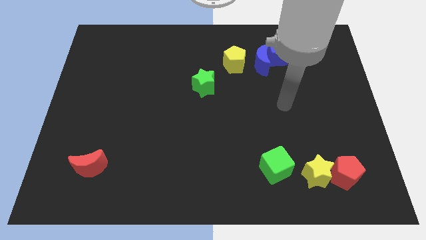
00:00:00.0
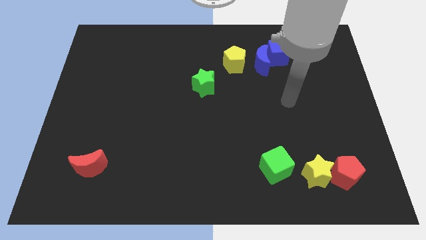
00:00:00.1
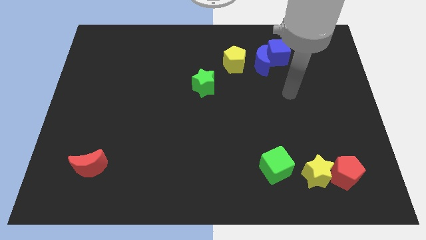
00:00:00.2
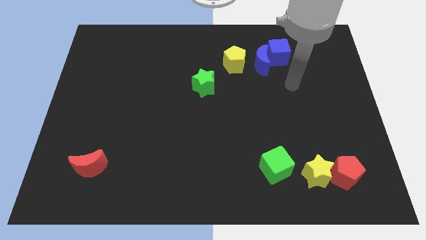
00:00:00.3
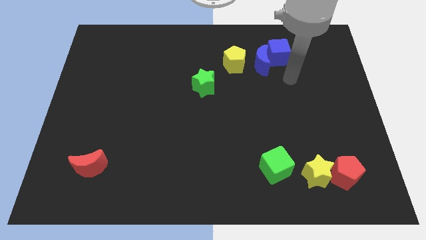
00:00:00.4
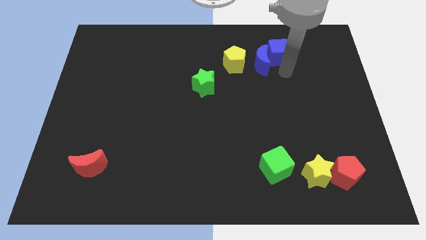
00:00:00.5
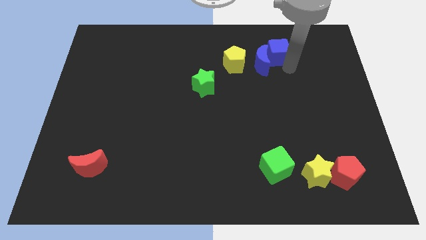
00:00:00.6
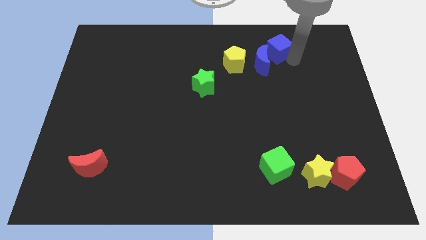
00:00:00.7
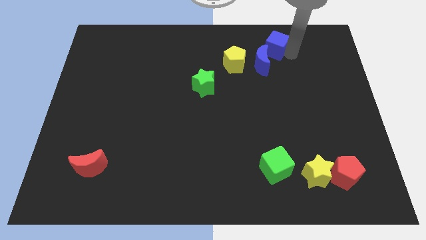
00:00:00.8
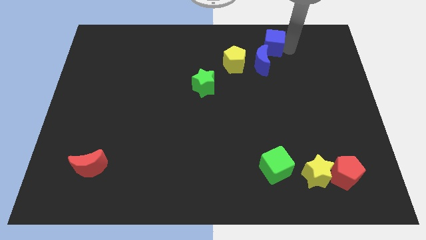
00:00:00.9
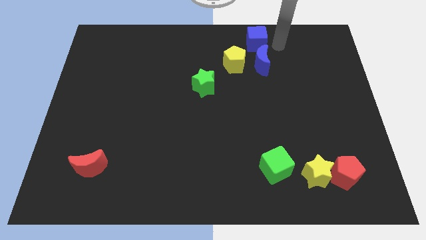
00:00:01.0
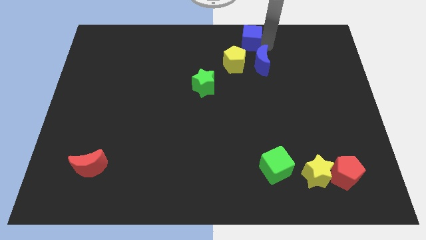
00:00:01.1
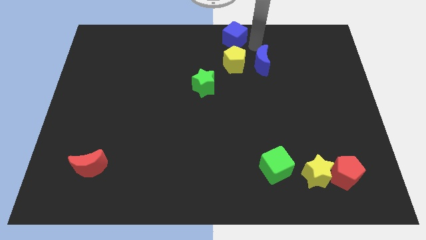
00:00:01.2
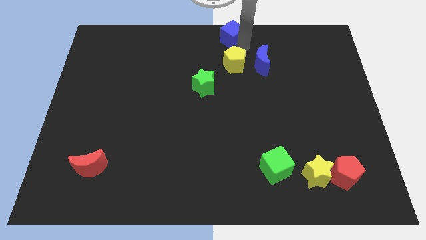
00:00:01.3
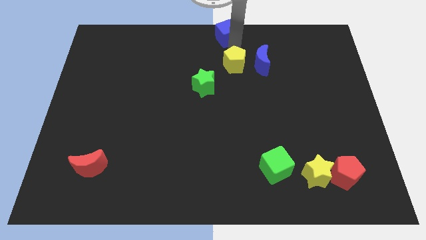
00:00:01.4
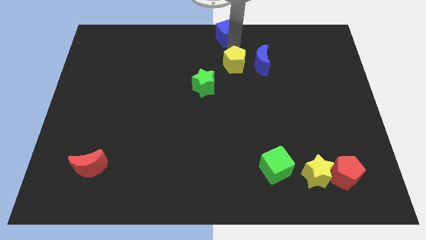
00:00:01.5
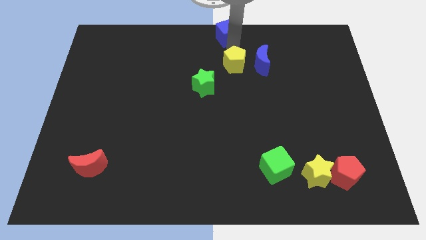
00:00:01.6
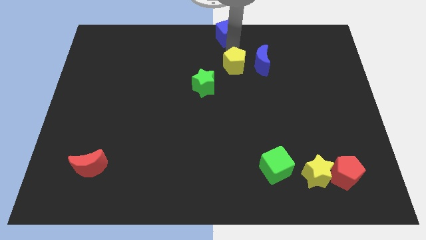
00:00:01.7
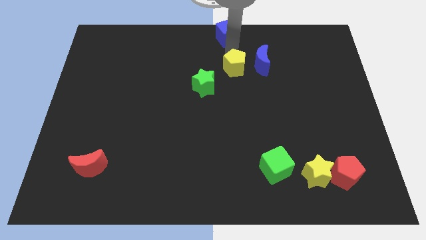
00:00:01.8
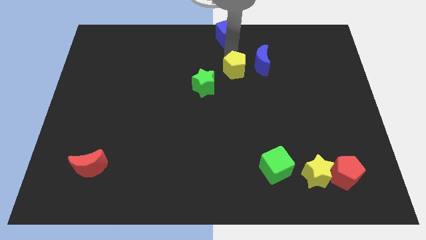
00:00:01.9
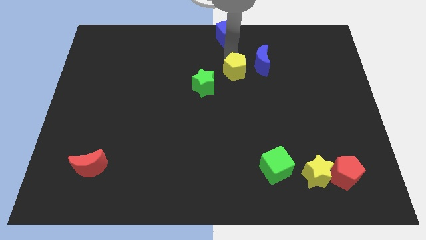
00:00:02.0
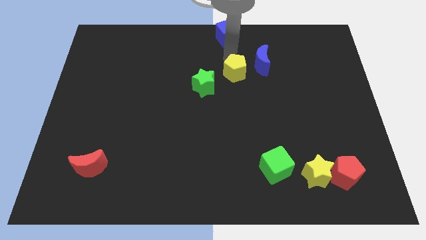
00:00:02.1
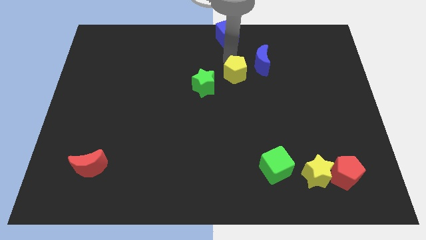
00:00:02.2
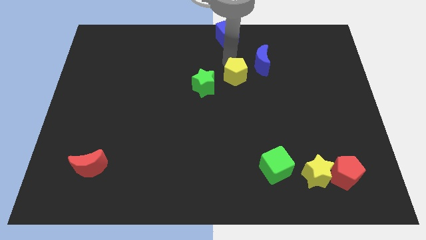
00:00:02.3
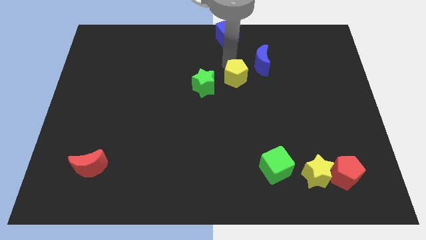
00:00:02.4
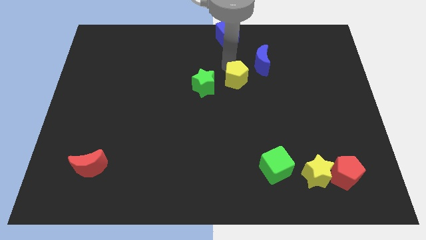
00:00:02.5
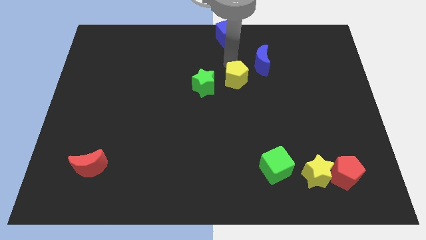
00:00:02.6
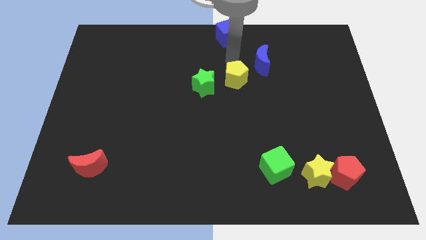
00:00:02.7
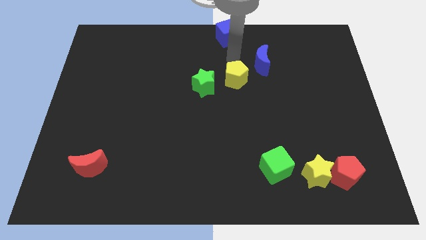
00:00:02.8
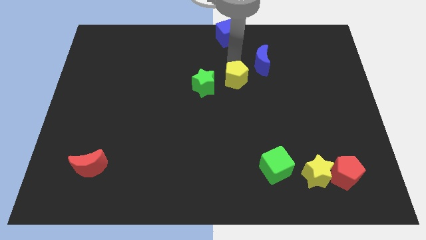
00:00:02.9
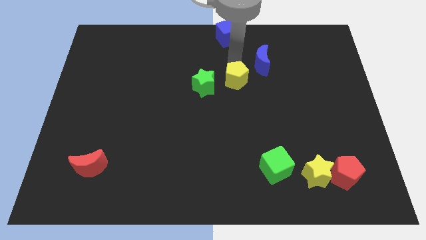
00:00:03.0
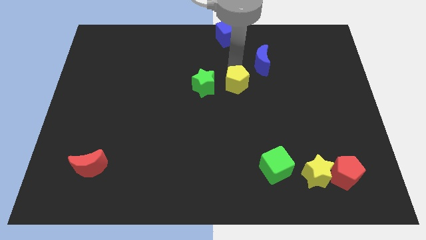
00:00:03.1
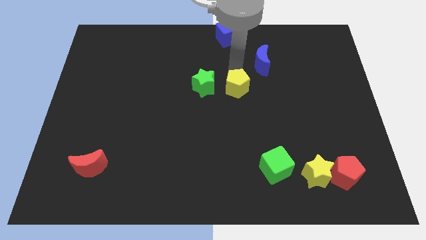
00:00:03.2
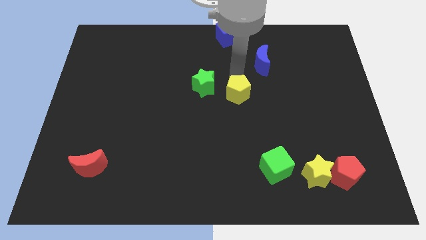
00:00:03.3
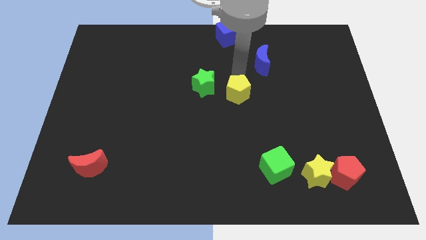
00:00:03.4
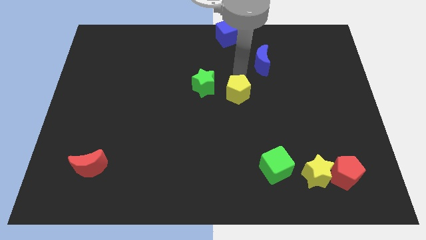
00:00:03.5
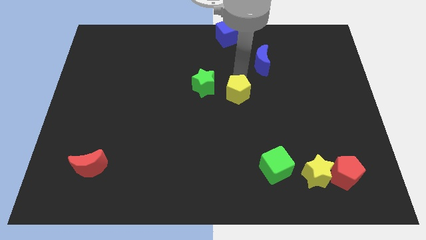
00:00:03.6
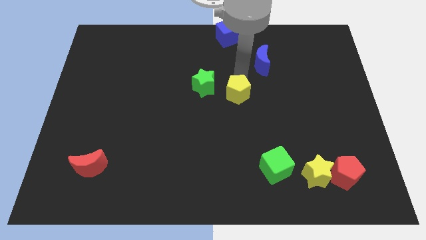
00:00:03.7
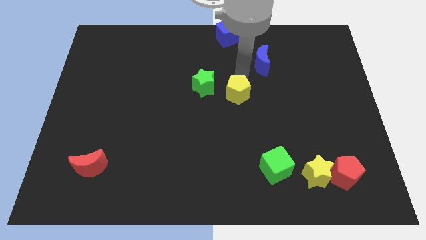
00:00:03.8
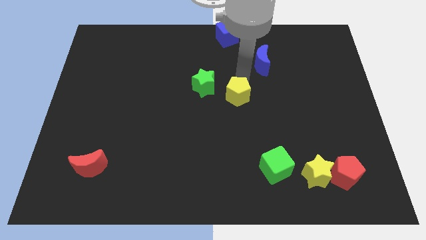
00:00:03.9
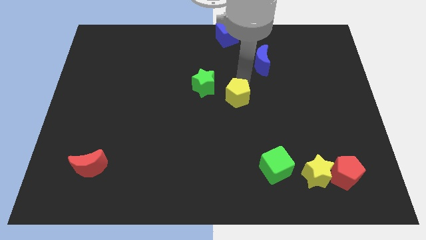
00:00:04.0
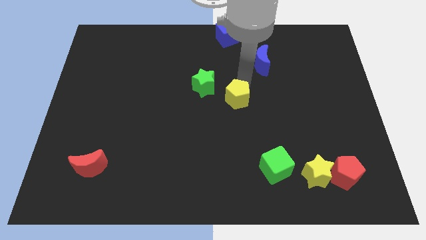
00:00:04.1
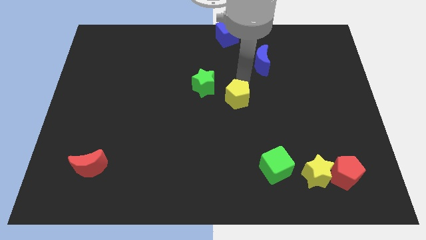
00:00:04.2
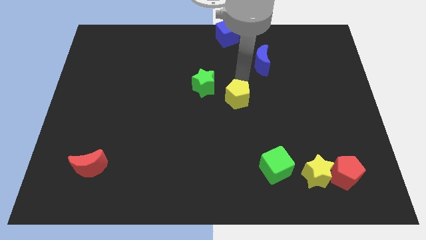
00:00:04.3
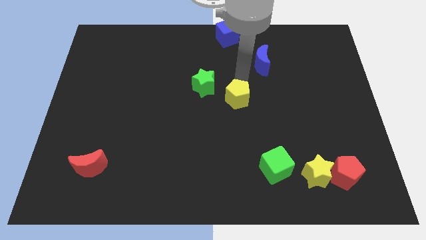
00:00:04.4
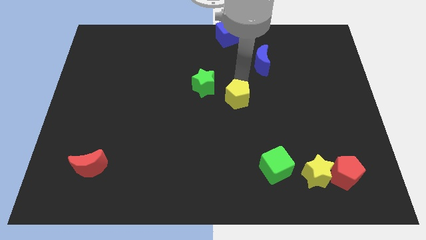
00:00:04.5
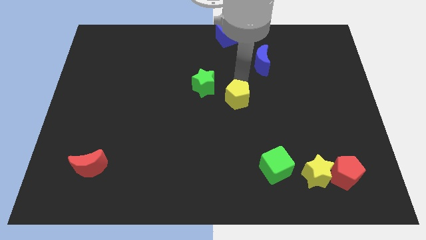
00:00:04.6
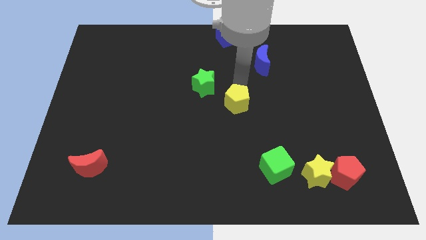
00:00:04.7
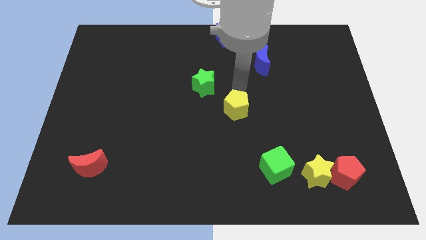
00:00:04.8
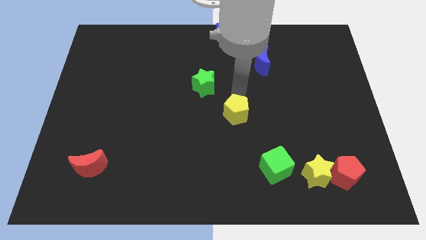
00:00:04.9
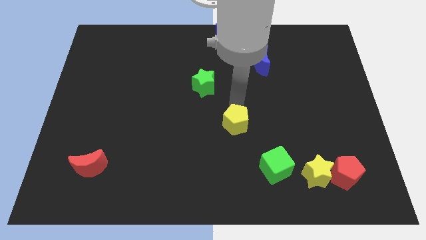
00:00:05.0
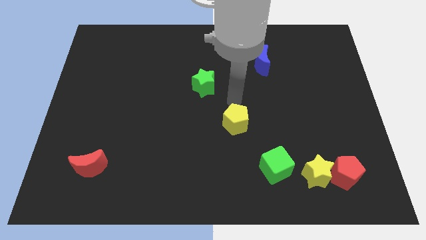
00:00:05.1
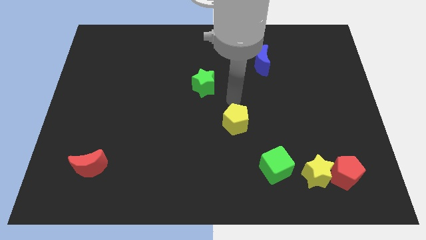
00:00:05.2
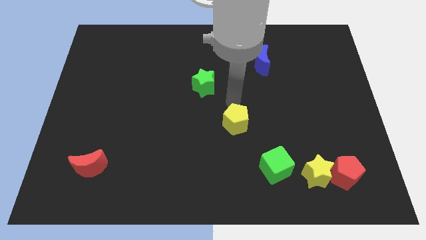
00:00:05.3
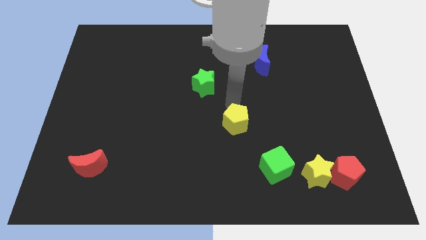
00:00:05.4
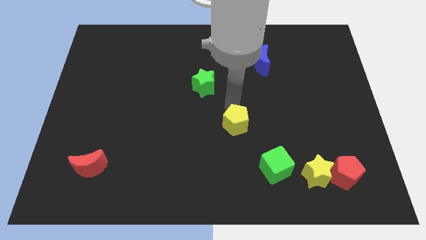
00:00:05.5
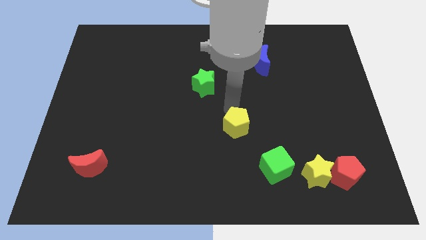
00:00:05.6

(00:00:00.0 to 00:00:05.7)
push the yellow pentagon down

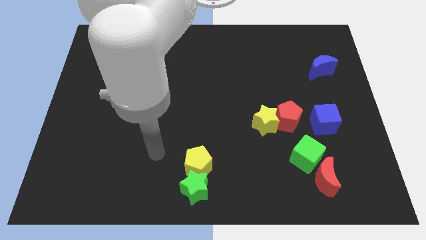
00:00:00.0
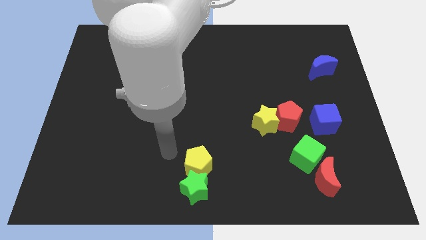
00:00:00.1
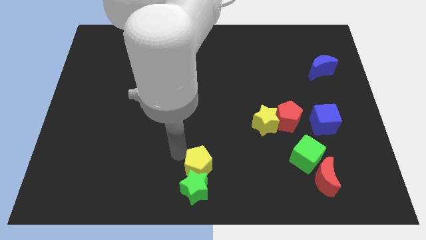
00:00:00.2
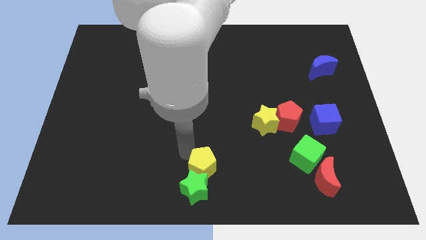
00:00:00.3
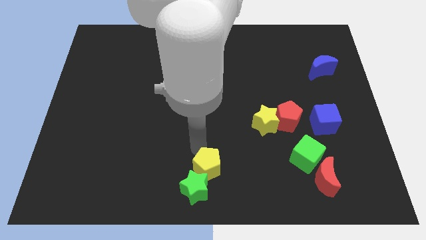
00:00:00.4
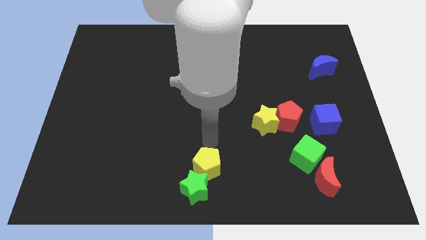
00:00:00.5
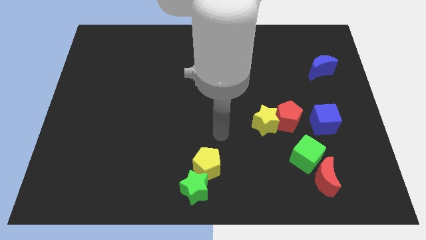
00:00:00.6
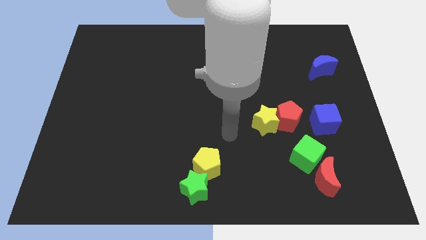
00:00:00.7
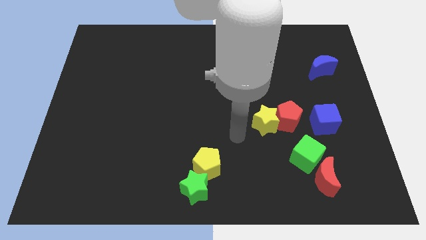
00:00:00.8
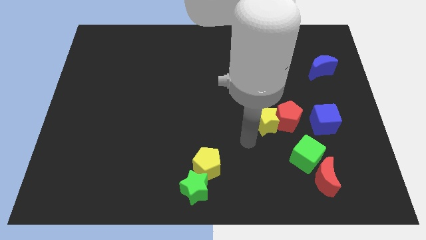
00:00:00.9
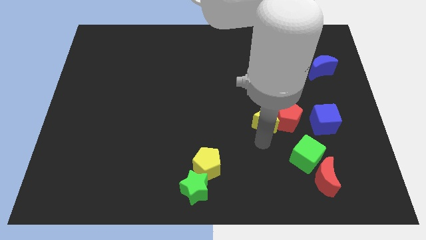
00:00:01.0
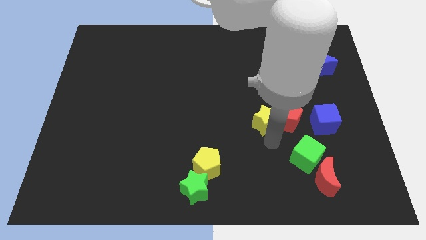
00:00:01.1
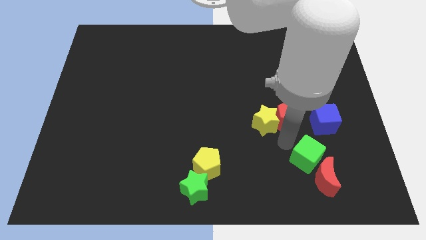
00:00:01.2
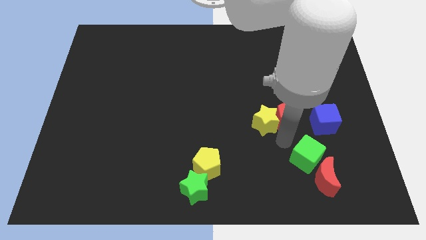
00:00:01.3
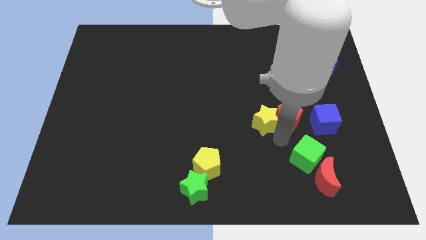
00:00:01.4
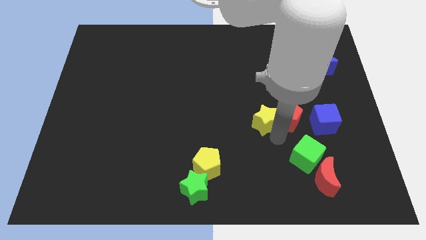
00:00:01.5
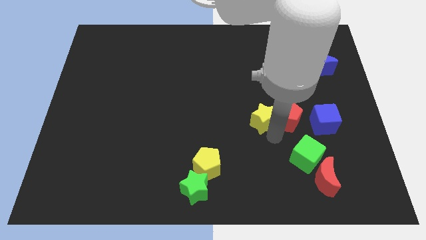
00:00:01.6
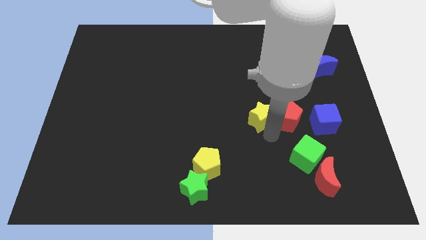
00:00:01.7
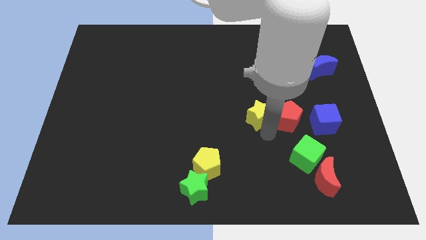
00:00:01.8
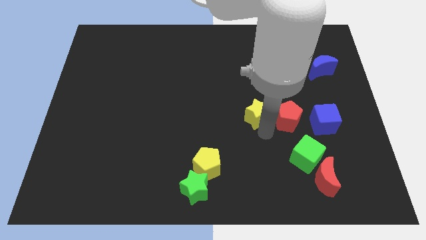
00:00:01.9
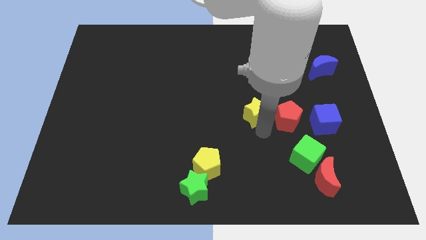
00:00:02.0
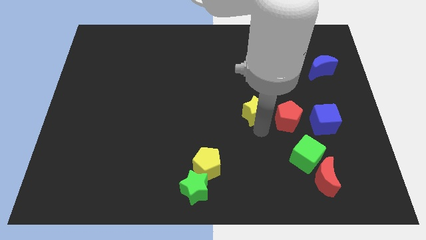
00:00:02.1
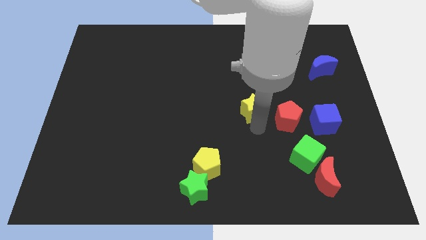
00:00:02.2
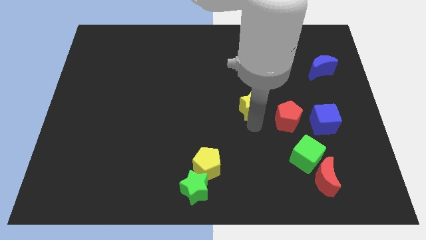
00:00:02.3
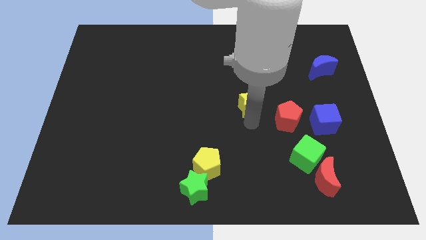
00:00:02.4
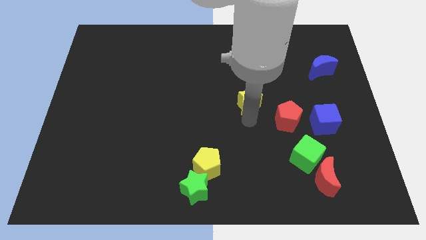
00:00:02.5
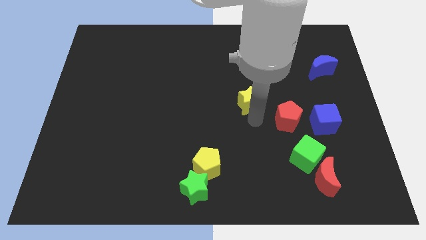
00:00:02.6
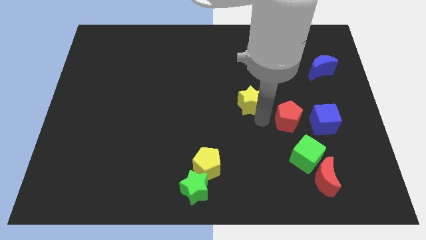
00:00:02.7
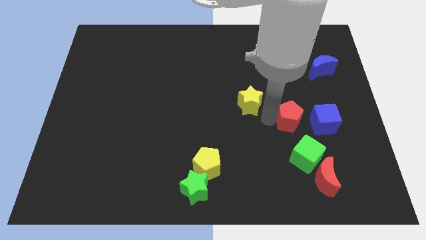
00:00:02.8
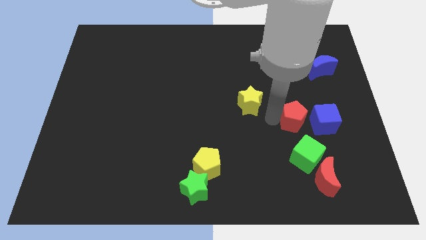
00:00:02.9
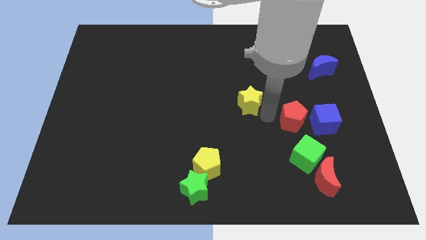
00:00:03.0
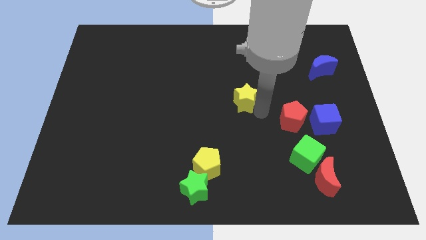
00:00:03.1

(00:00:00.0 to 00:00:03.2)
push the yellow star a bit diagonally up and left
